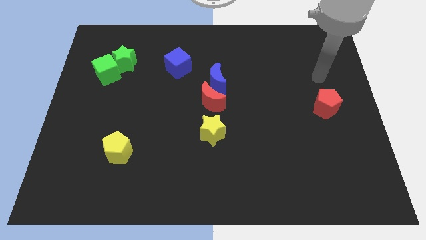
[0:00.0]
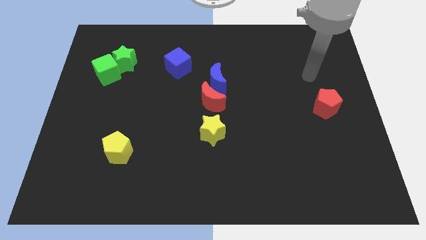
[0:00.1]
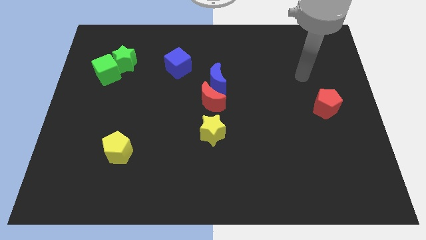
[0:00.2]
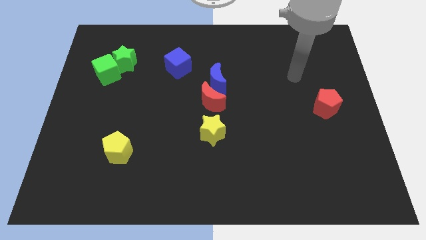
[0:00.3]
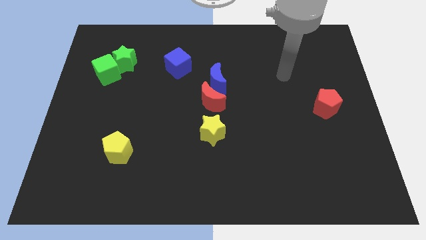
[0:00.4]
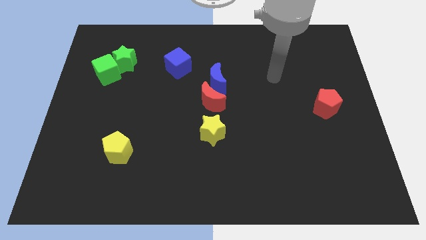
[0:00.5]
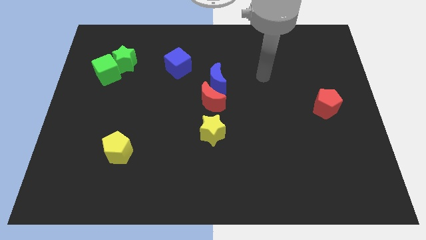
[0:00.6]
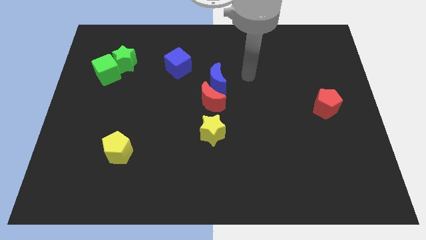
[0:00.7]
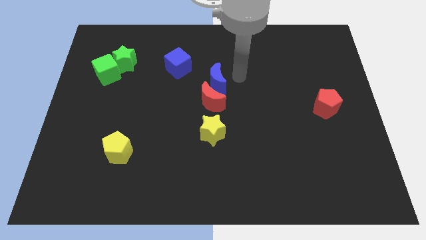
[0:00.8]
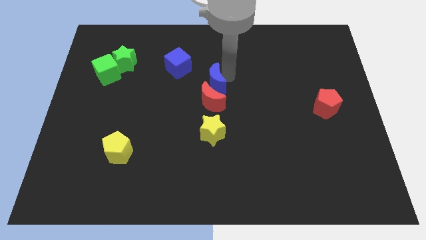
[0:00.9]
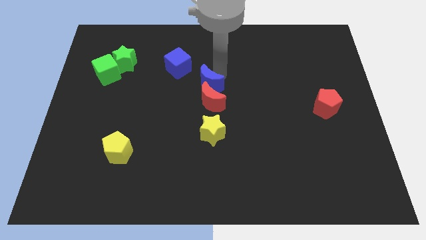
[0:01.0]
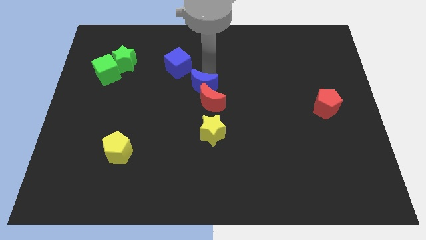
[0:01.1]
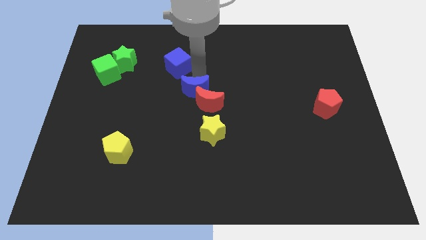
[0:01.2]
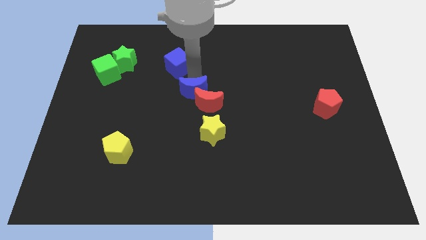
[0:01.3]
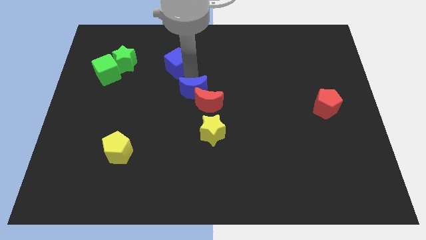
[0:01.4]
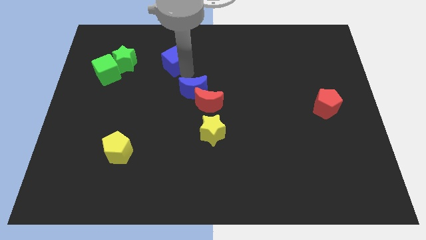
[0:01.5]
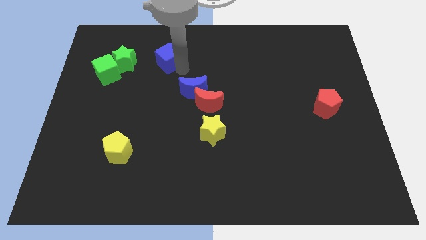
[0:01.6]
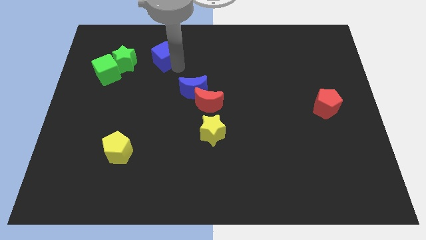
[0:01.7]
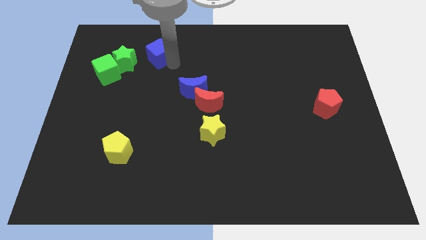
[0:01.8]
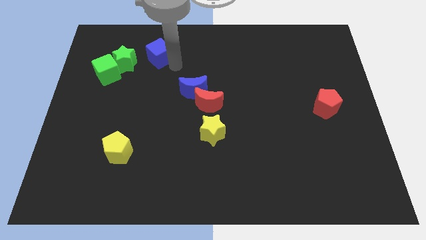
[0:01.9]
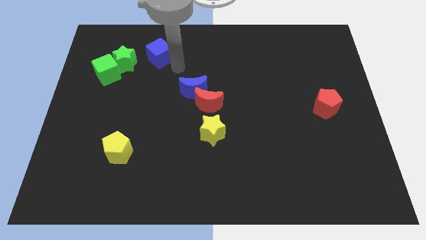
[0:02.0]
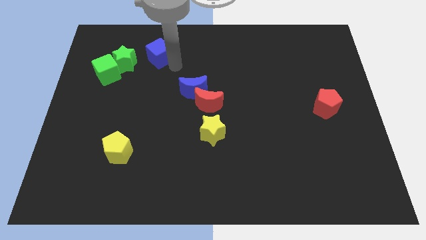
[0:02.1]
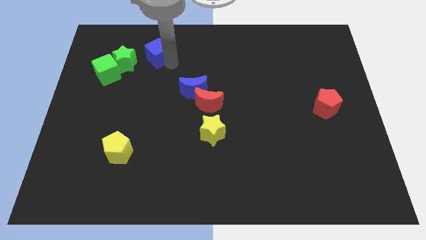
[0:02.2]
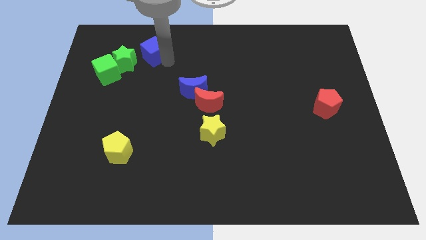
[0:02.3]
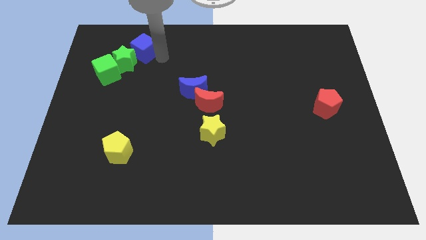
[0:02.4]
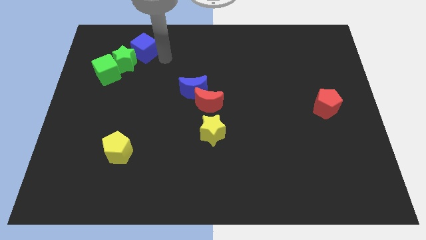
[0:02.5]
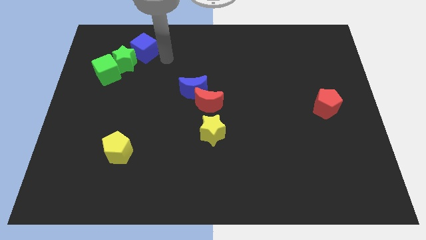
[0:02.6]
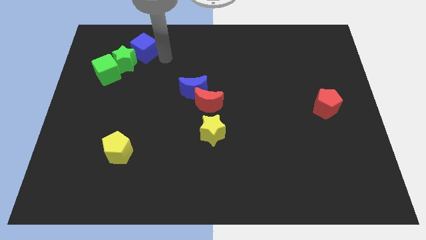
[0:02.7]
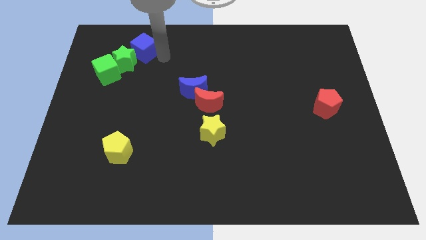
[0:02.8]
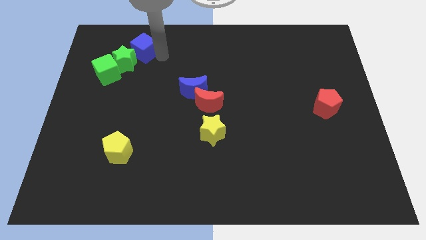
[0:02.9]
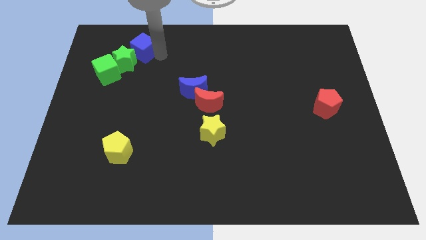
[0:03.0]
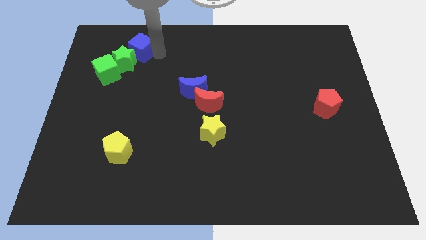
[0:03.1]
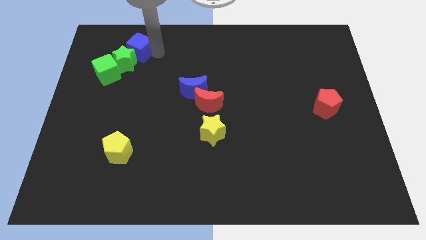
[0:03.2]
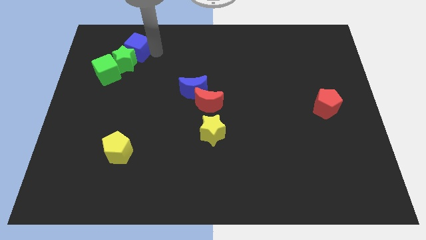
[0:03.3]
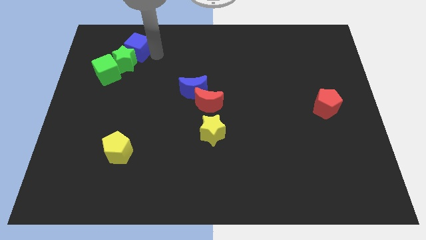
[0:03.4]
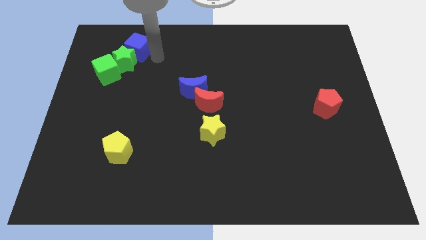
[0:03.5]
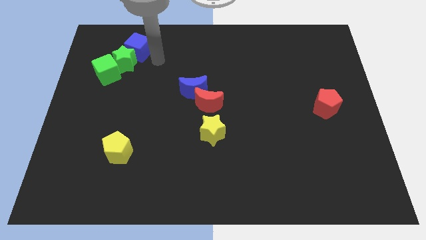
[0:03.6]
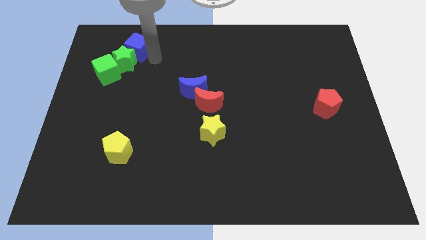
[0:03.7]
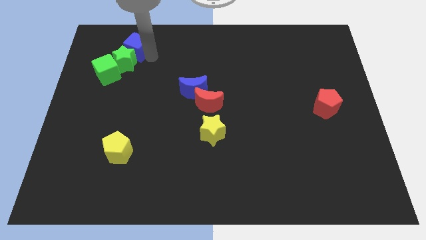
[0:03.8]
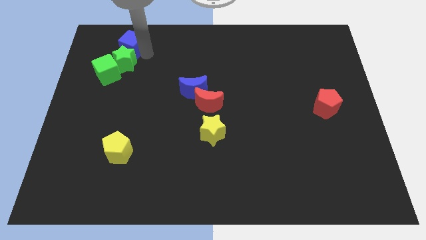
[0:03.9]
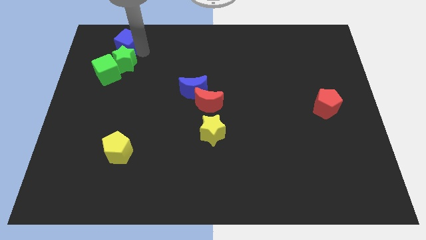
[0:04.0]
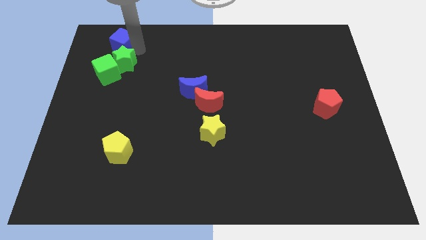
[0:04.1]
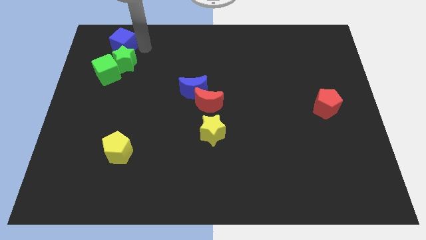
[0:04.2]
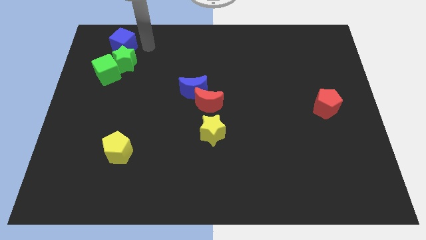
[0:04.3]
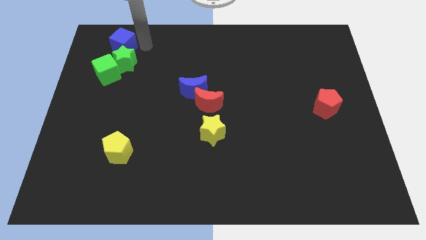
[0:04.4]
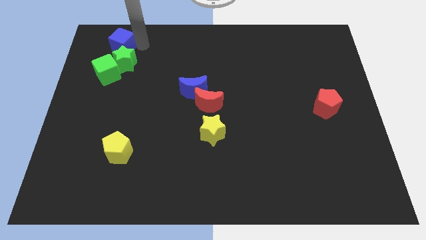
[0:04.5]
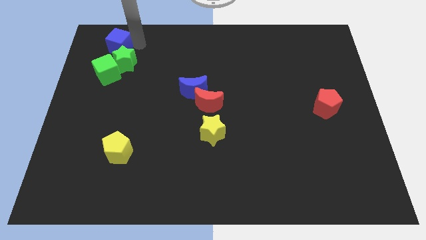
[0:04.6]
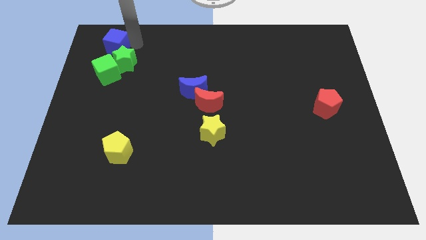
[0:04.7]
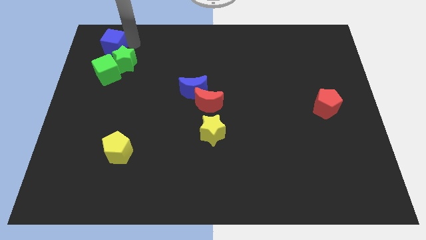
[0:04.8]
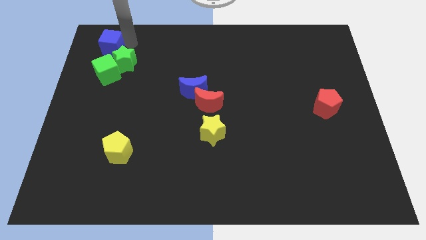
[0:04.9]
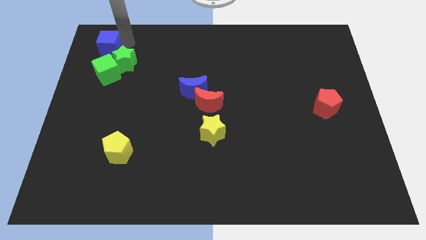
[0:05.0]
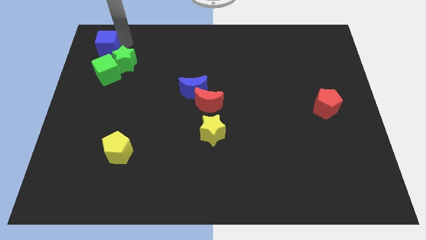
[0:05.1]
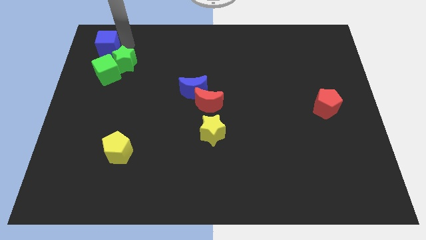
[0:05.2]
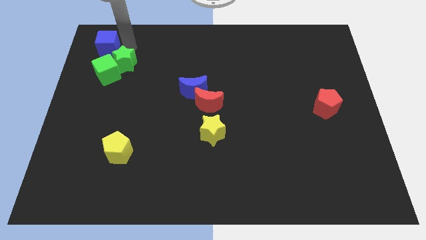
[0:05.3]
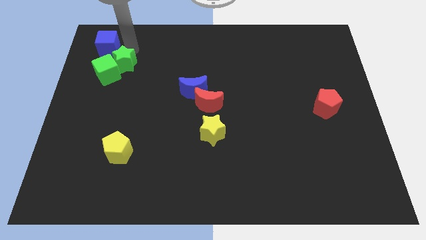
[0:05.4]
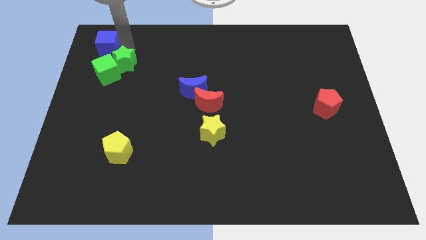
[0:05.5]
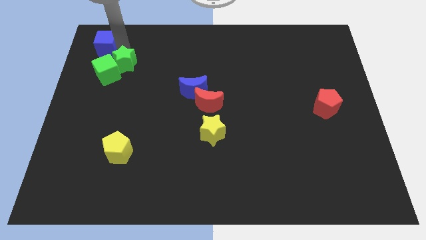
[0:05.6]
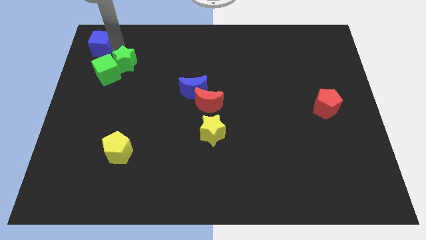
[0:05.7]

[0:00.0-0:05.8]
slide the blue cube to the upper left corner

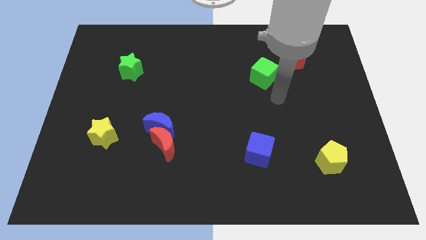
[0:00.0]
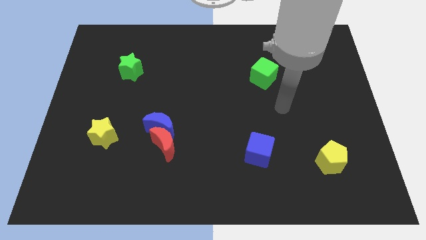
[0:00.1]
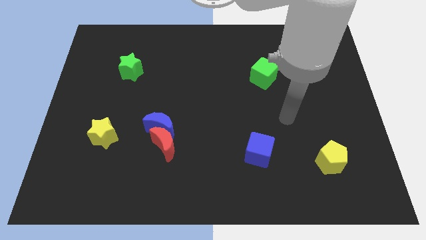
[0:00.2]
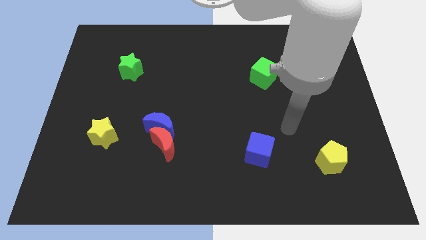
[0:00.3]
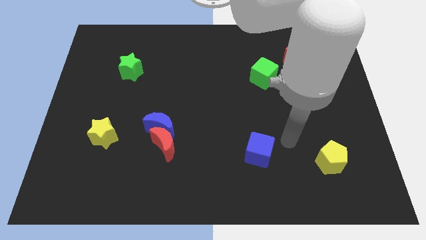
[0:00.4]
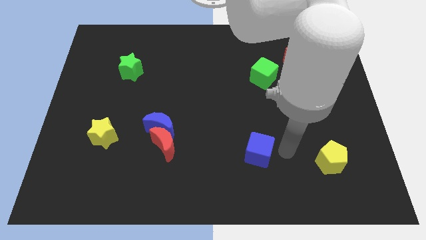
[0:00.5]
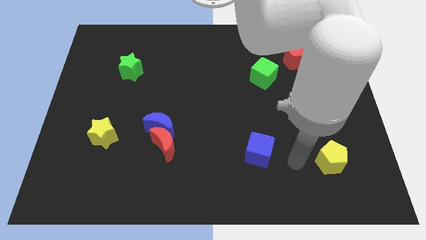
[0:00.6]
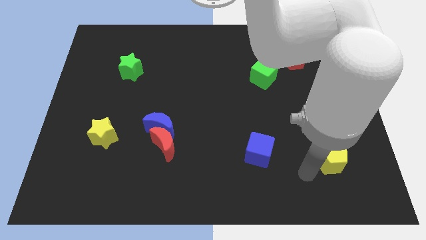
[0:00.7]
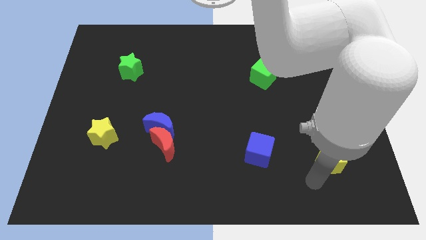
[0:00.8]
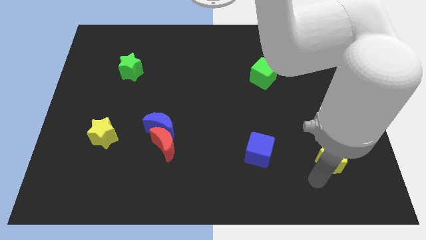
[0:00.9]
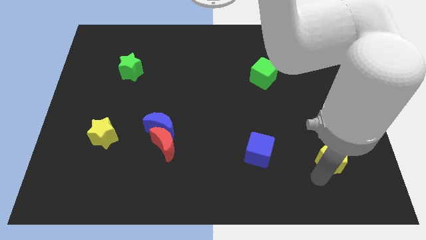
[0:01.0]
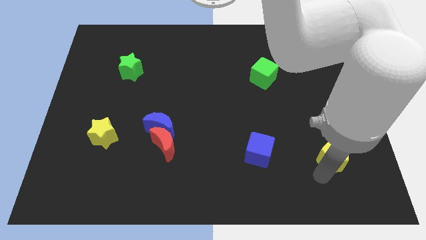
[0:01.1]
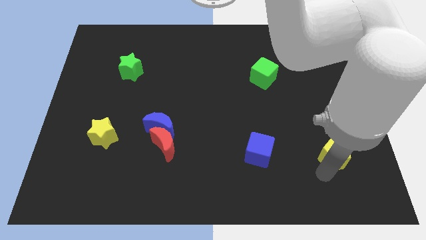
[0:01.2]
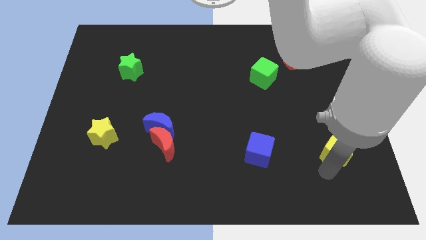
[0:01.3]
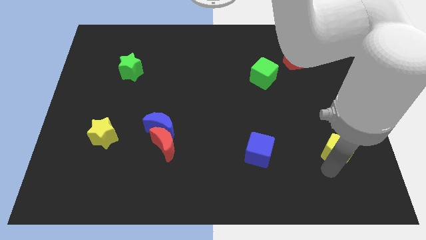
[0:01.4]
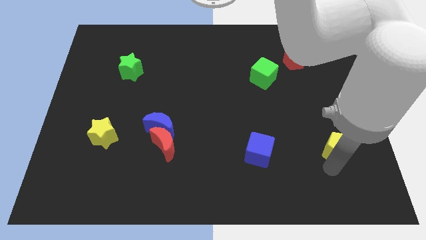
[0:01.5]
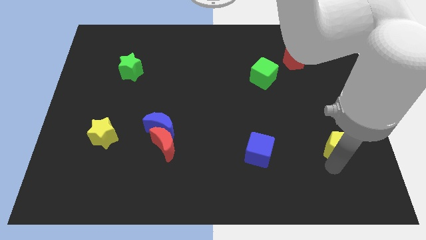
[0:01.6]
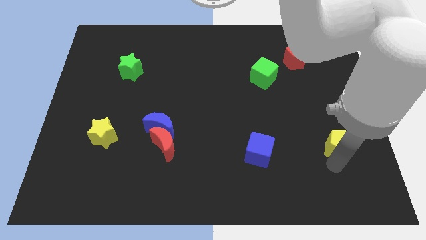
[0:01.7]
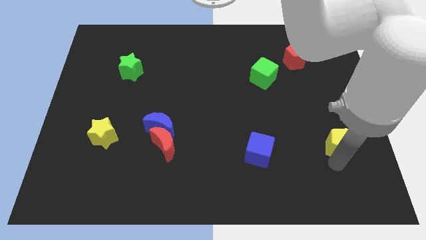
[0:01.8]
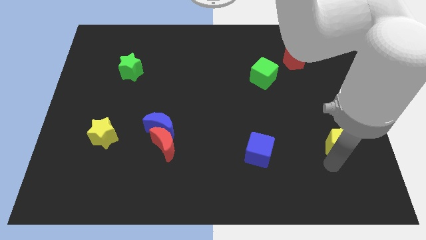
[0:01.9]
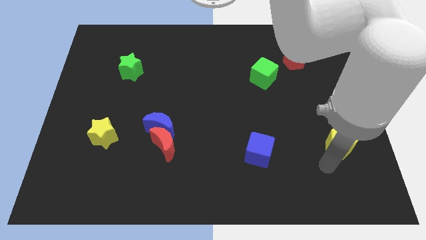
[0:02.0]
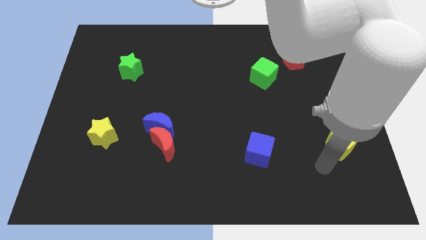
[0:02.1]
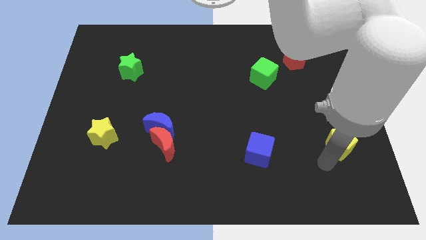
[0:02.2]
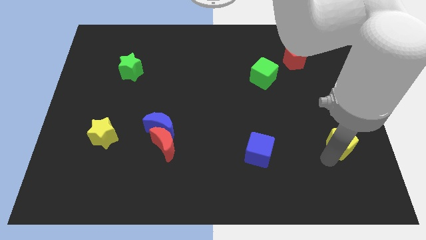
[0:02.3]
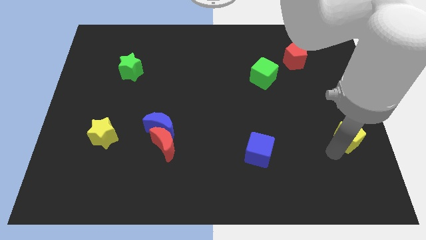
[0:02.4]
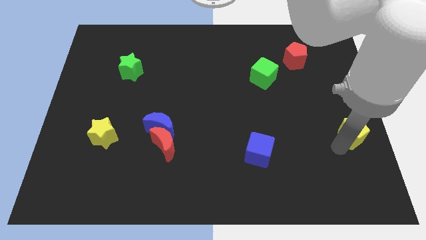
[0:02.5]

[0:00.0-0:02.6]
put the yellow pentagon to the right side of the board
